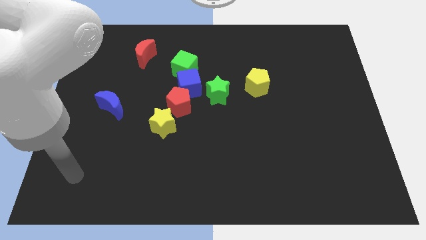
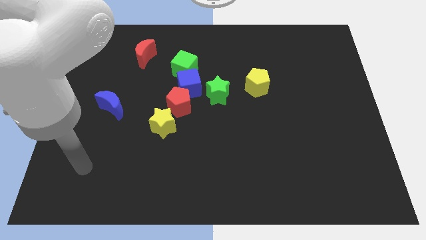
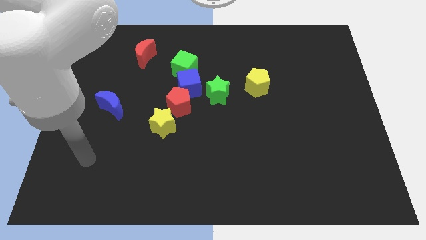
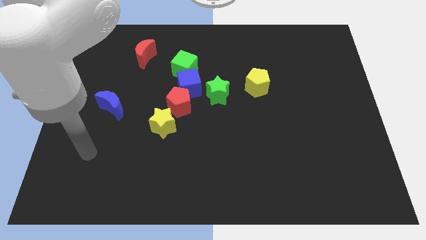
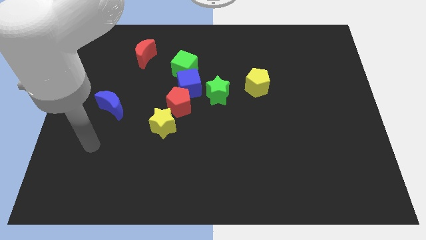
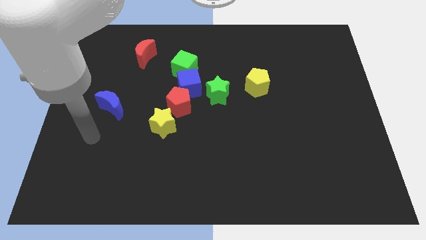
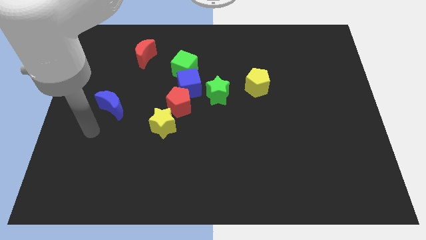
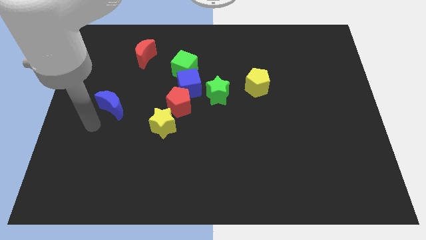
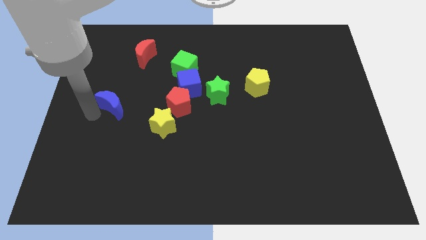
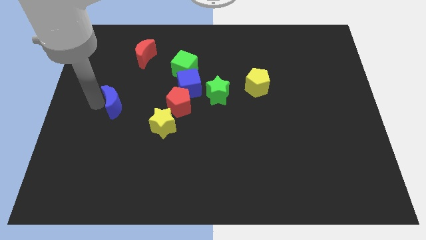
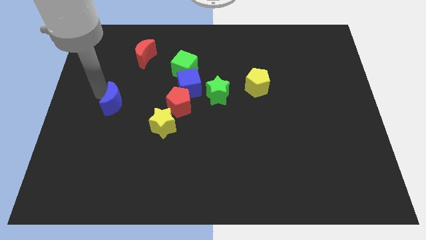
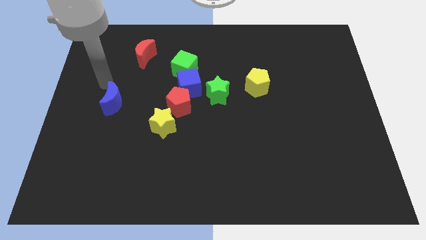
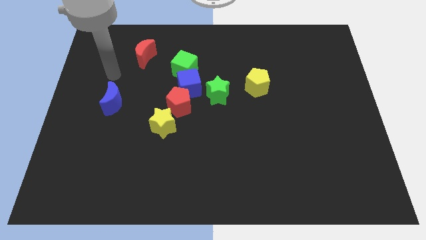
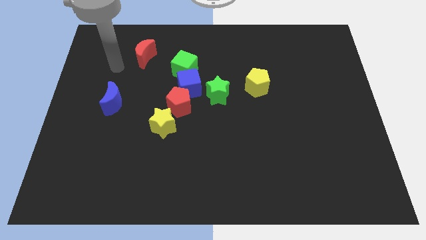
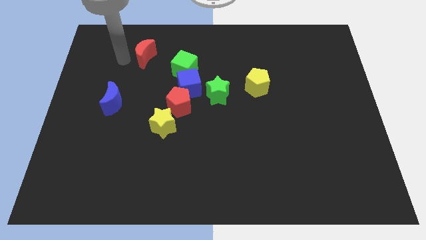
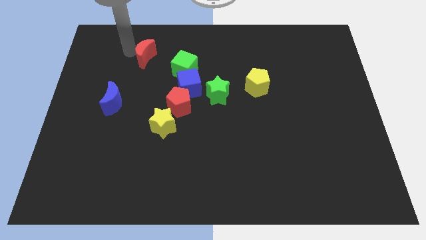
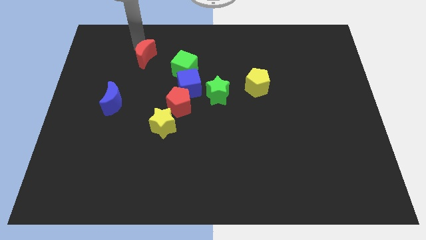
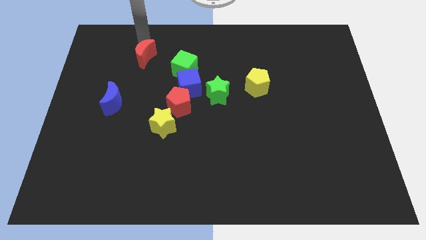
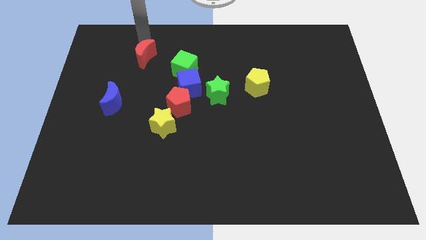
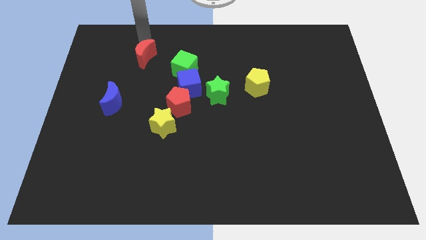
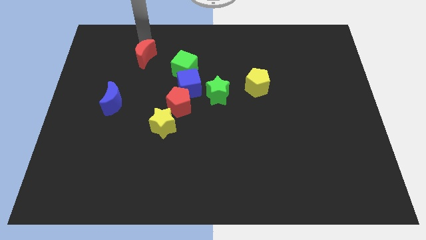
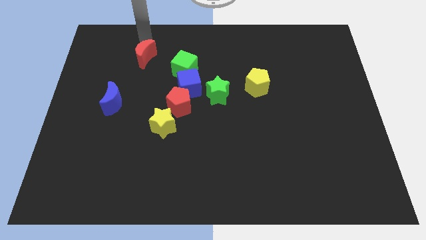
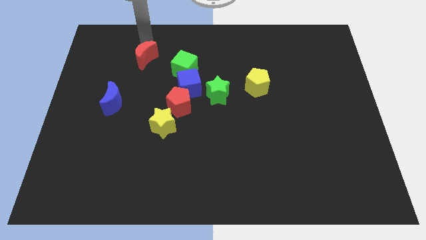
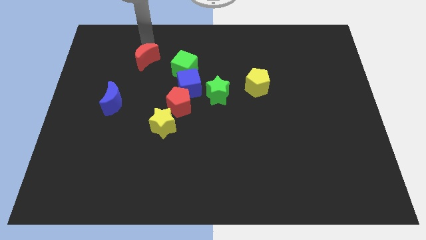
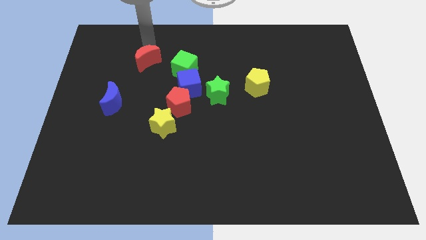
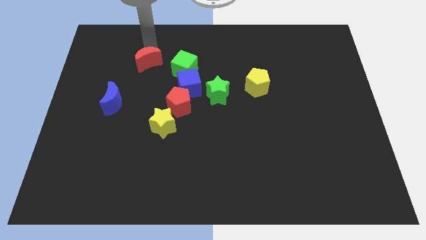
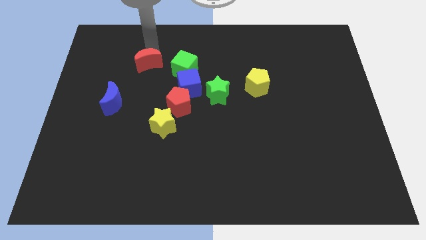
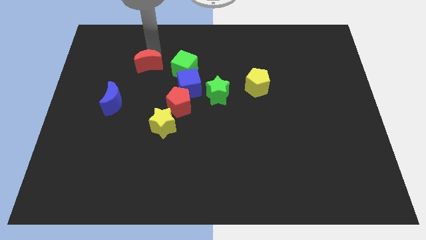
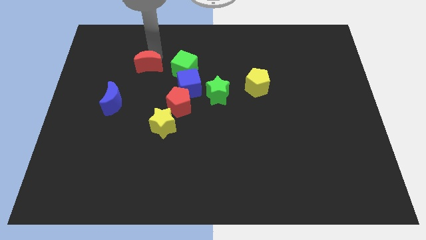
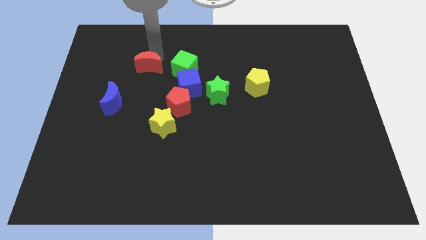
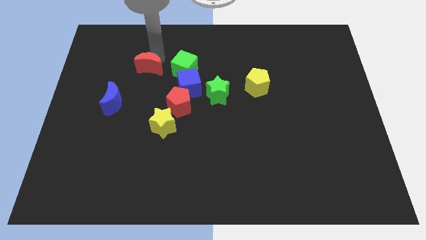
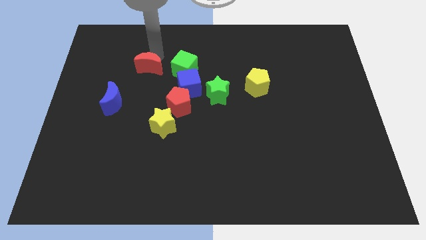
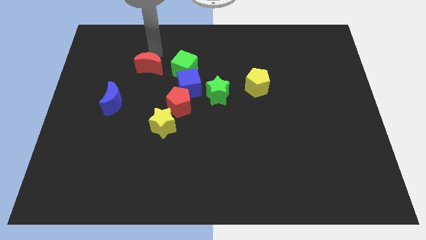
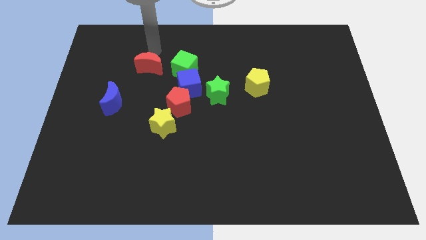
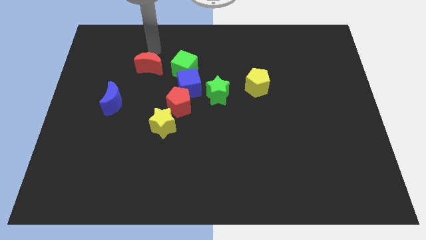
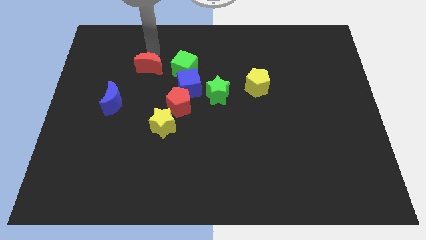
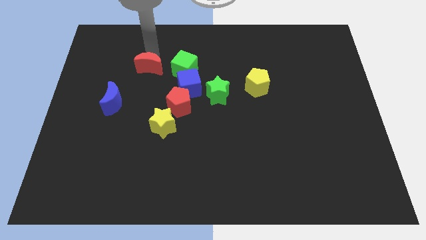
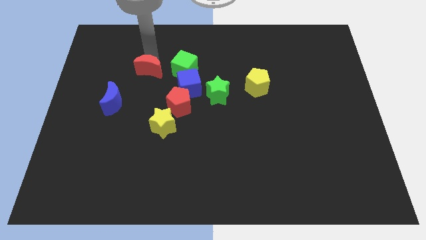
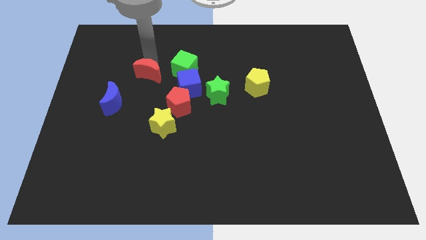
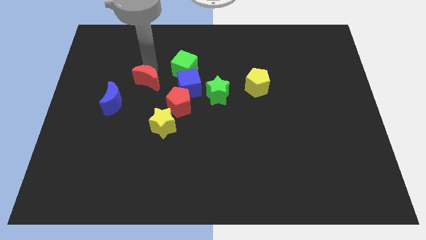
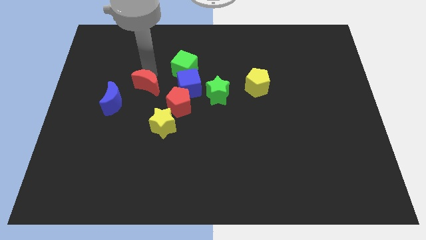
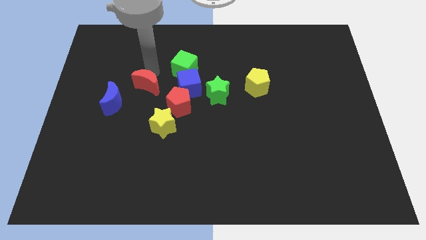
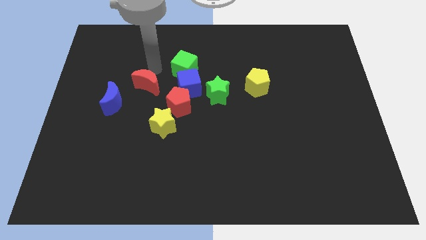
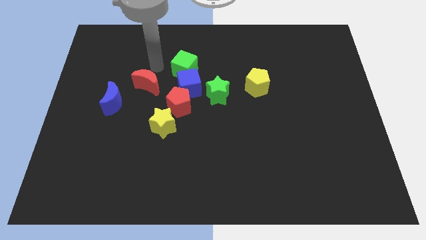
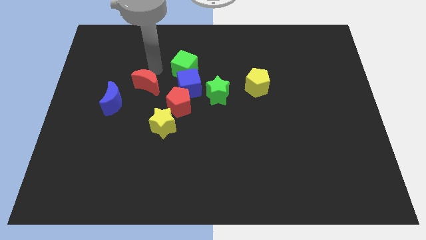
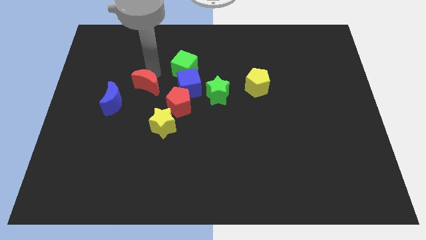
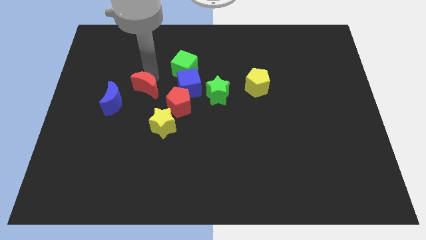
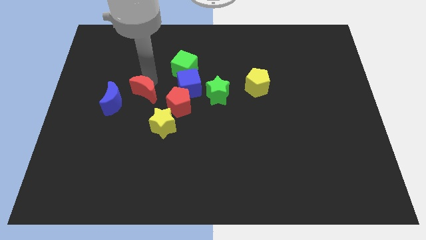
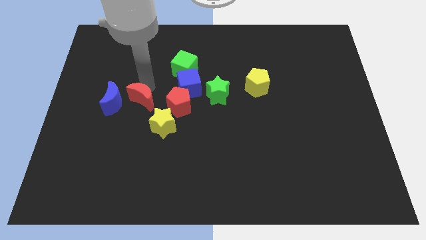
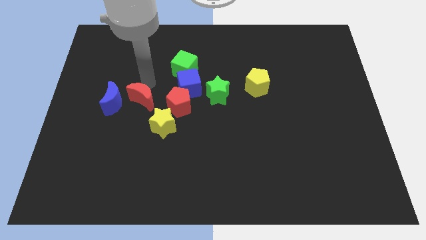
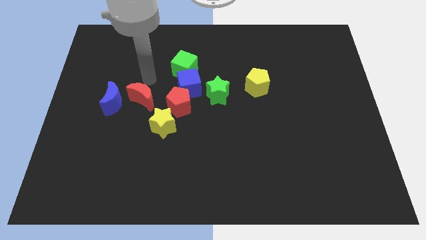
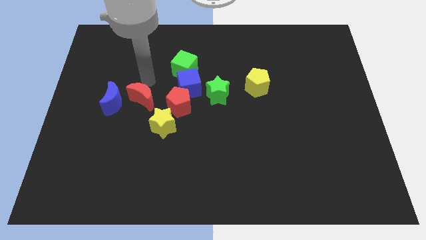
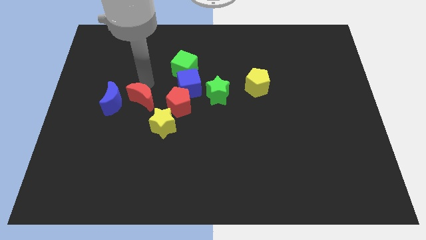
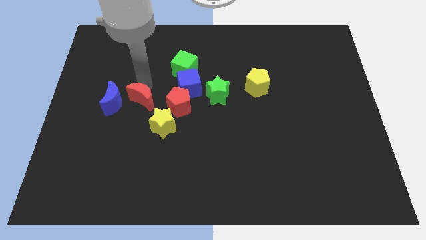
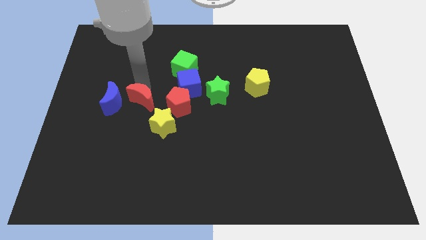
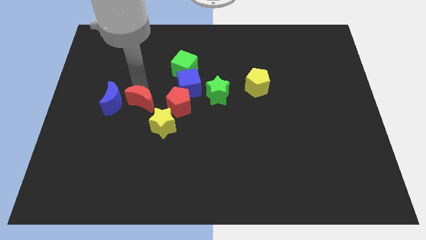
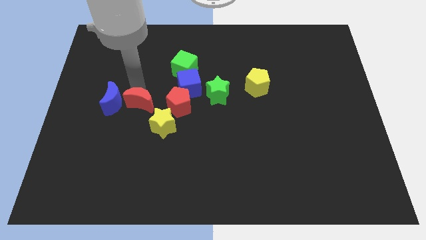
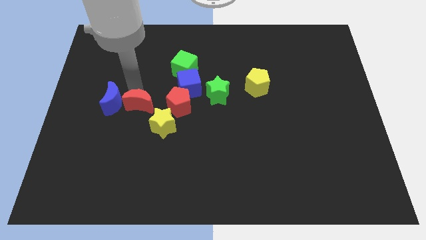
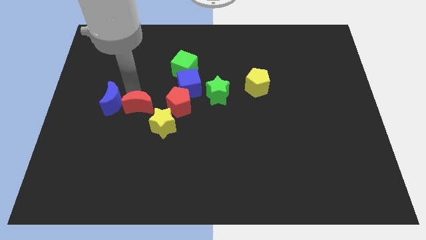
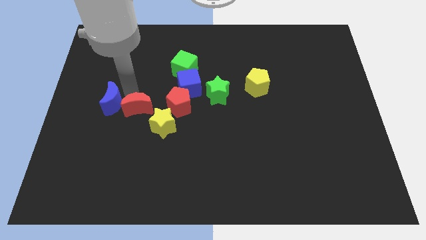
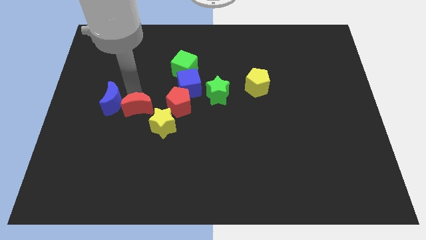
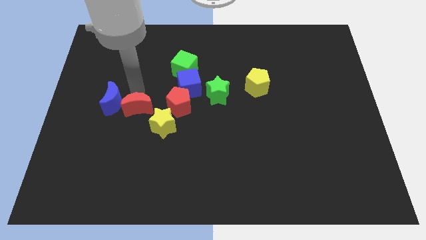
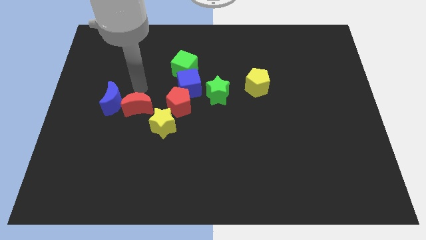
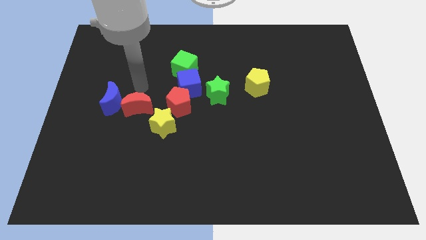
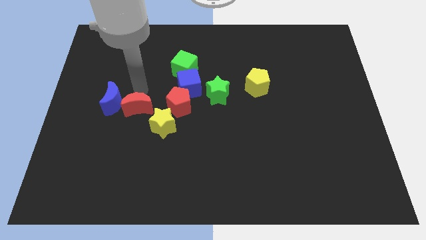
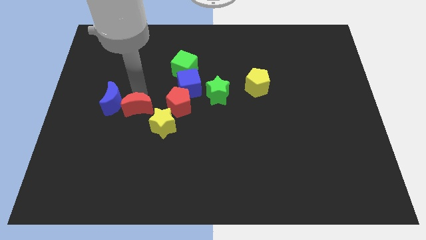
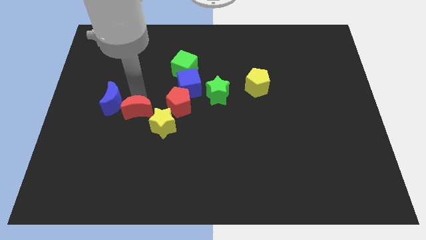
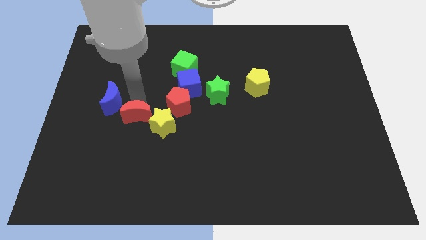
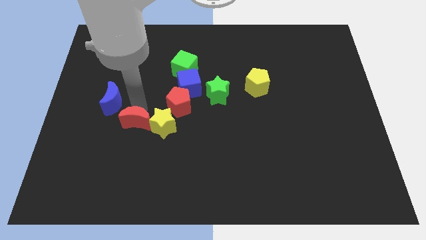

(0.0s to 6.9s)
push the red moon downwards

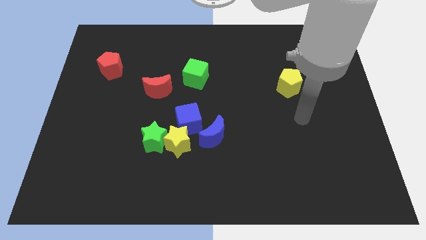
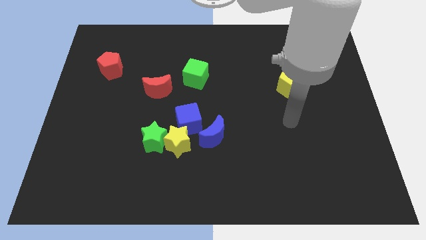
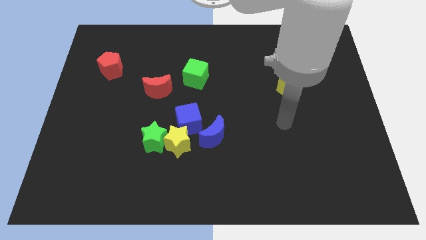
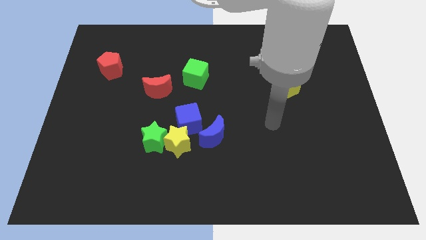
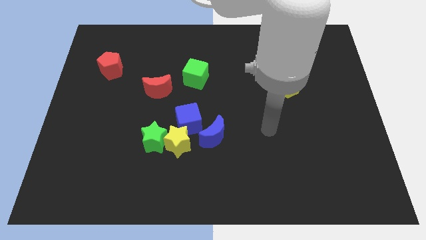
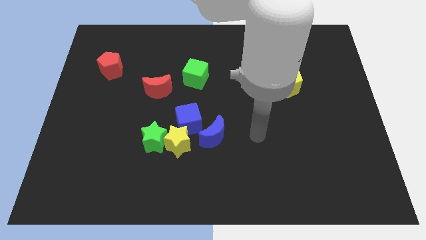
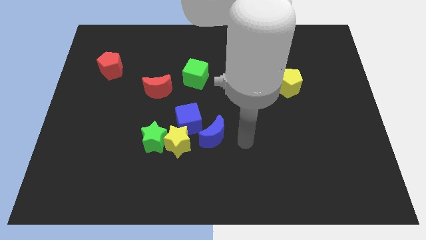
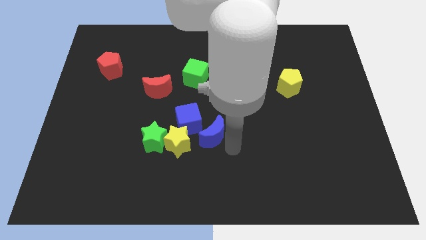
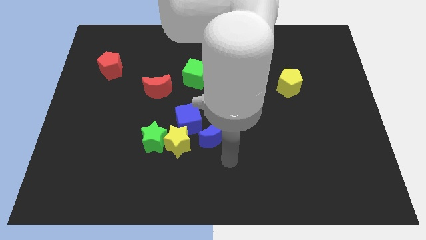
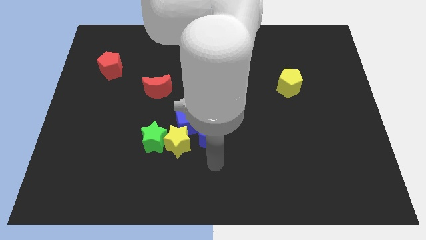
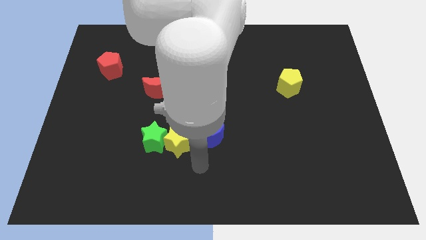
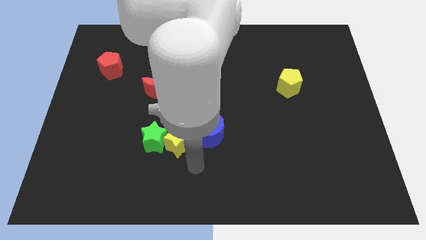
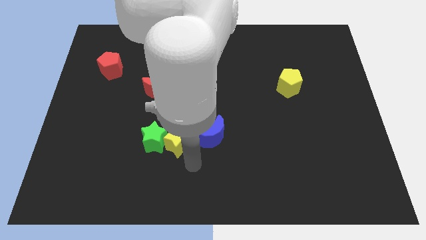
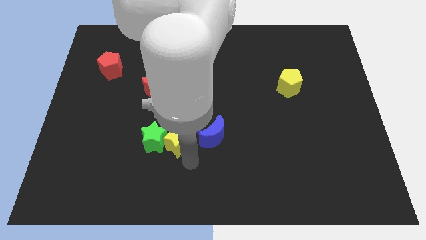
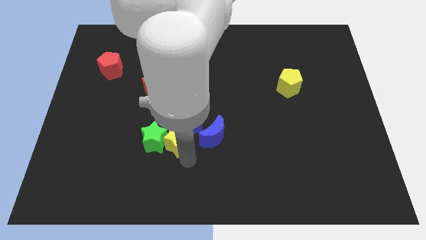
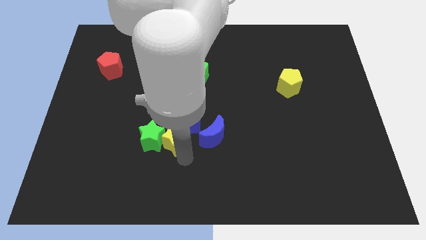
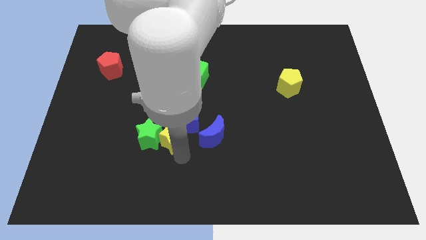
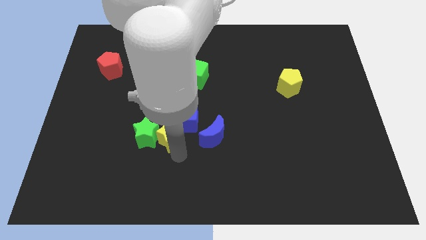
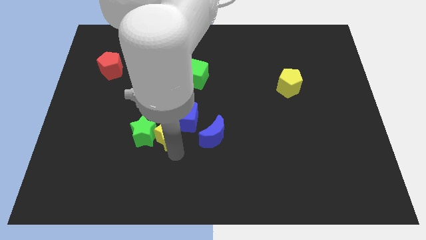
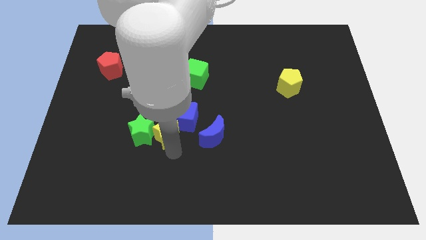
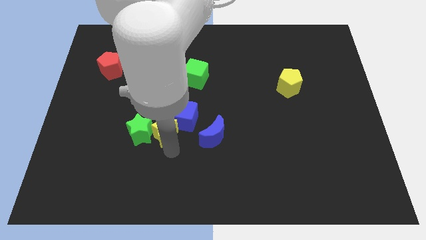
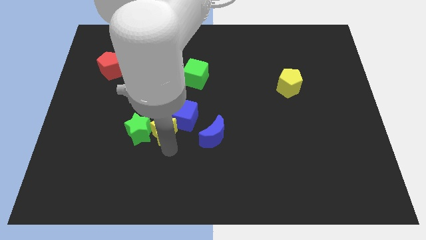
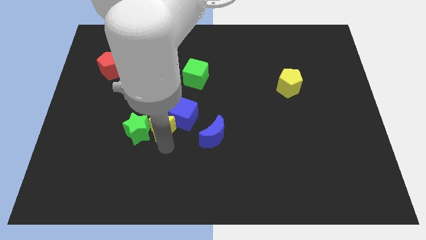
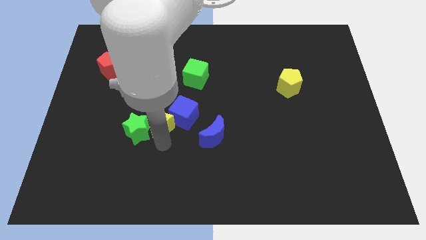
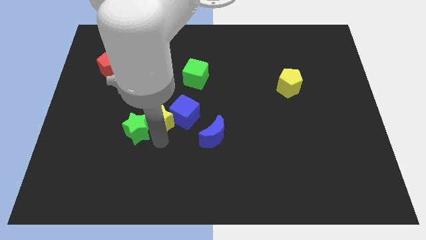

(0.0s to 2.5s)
move the yellow star up and to the left somewhat
